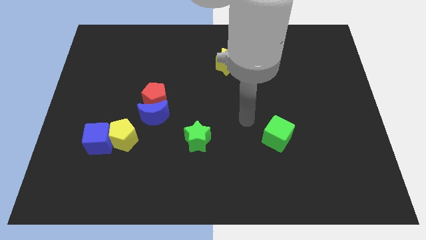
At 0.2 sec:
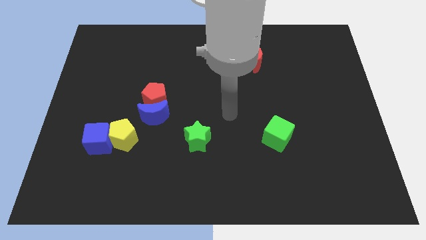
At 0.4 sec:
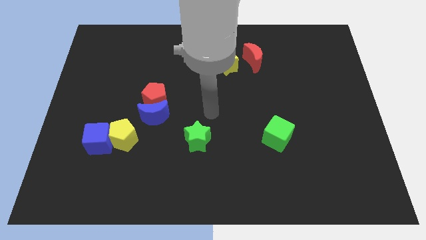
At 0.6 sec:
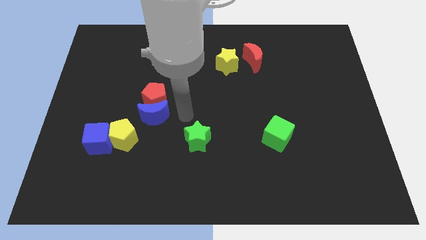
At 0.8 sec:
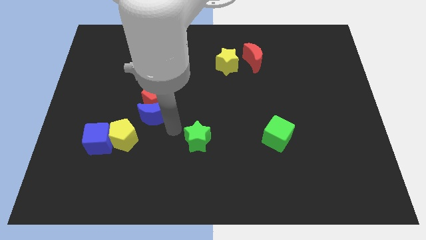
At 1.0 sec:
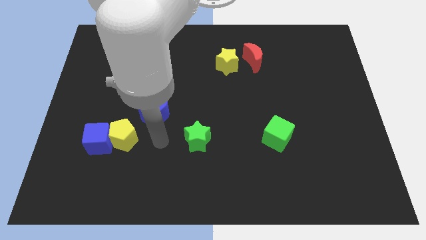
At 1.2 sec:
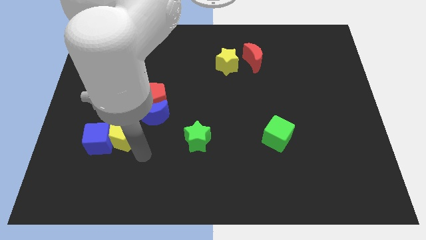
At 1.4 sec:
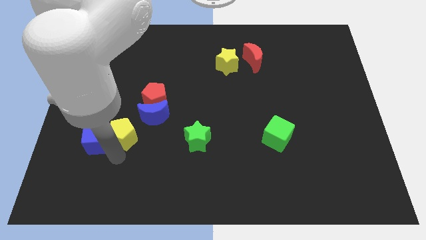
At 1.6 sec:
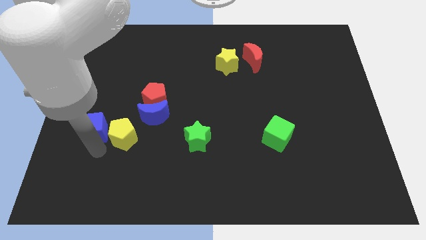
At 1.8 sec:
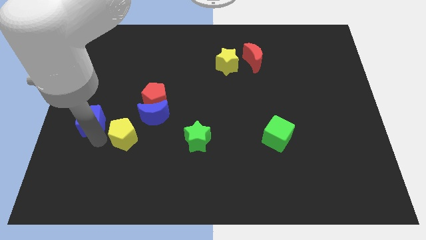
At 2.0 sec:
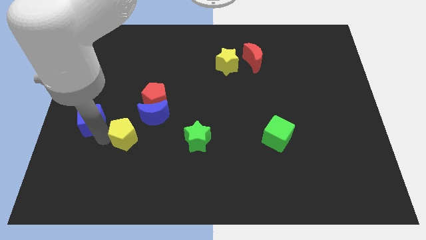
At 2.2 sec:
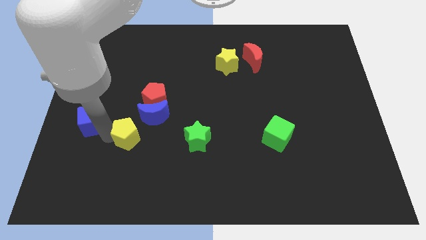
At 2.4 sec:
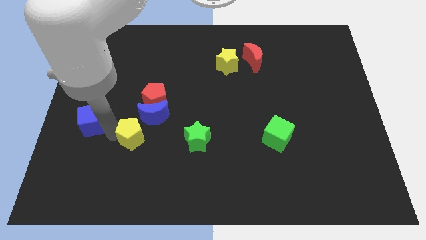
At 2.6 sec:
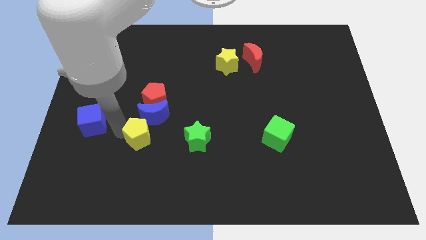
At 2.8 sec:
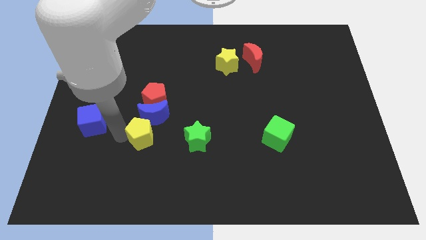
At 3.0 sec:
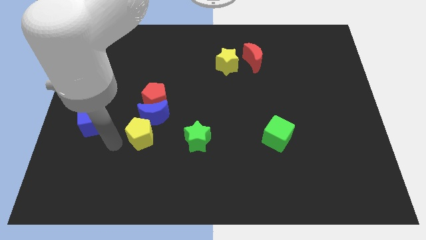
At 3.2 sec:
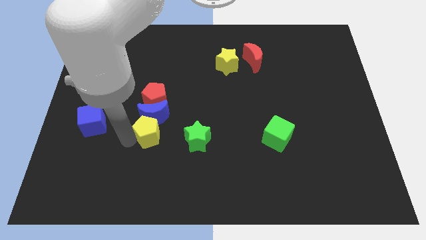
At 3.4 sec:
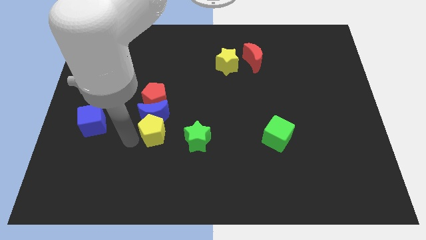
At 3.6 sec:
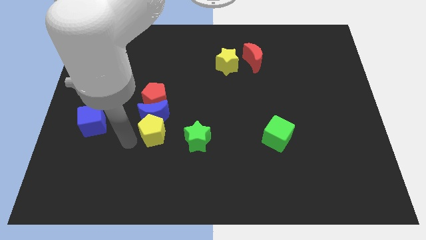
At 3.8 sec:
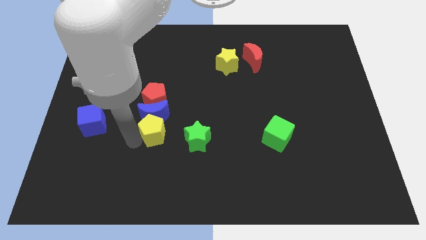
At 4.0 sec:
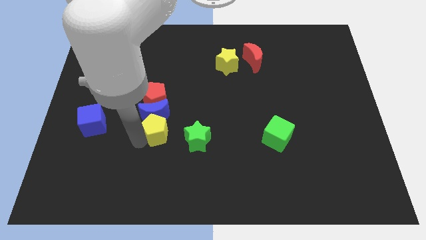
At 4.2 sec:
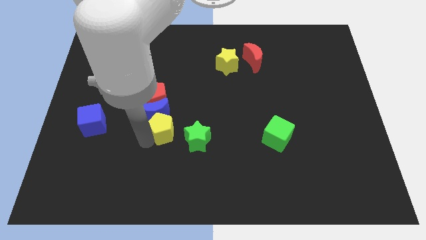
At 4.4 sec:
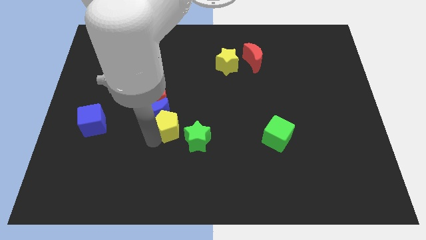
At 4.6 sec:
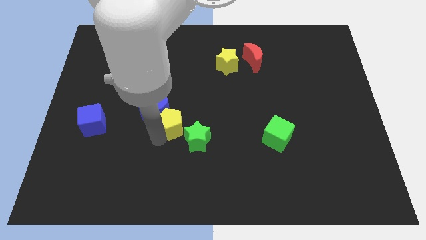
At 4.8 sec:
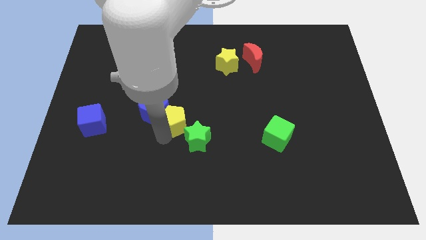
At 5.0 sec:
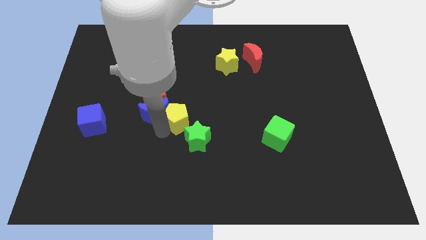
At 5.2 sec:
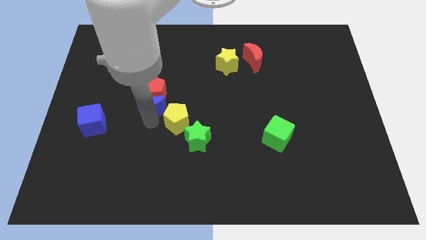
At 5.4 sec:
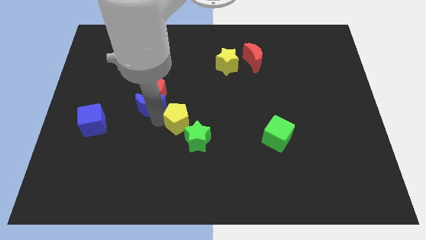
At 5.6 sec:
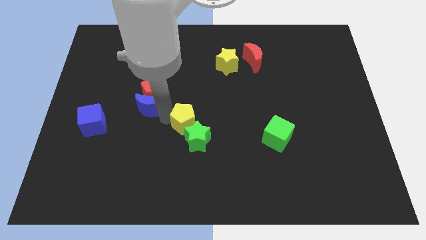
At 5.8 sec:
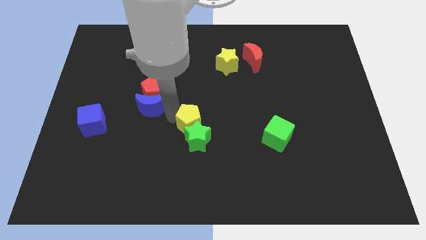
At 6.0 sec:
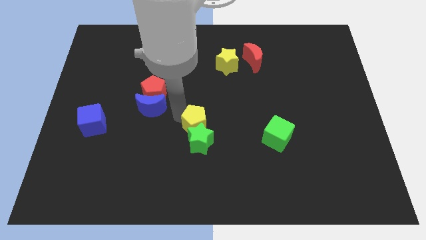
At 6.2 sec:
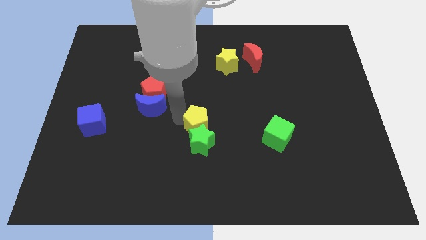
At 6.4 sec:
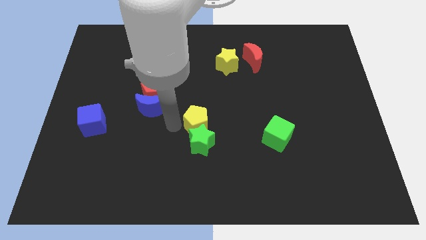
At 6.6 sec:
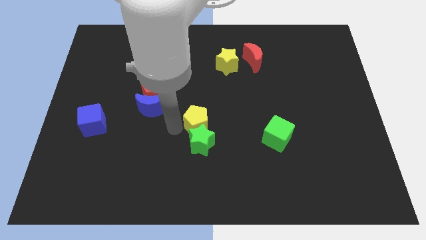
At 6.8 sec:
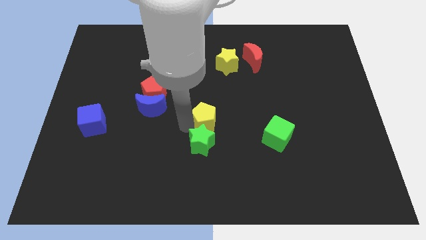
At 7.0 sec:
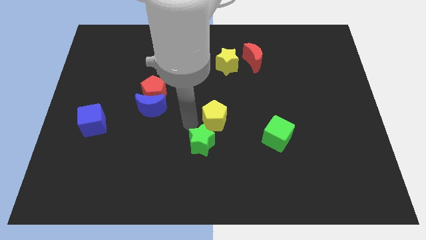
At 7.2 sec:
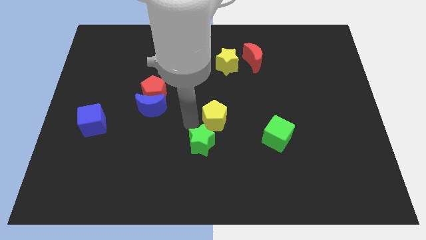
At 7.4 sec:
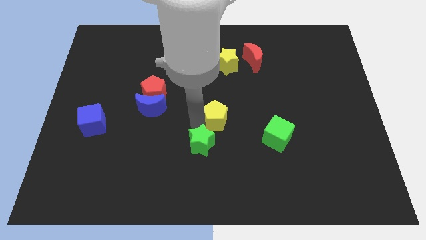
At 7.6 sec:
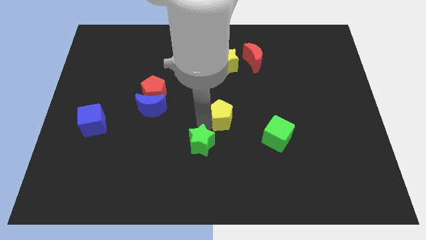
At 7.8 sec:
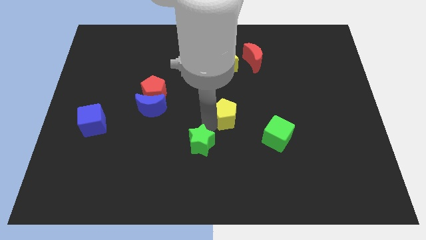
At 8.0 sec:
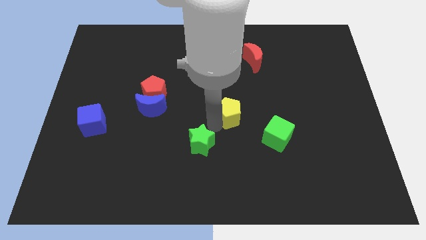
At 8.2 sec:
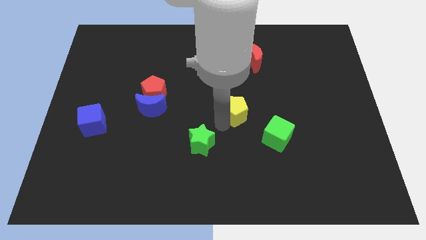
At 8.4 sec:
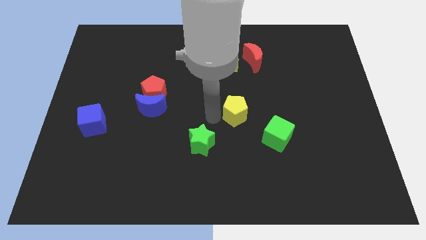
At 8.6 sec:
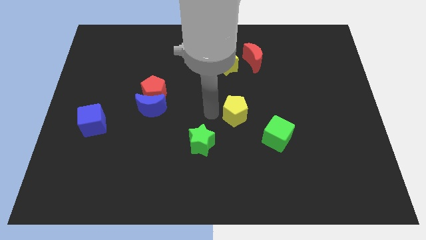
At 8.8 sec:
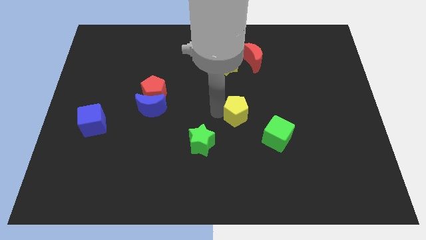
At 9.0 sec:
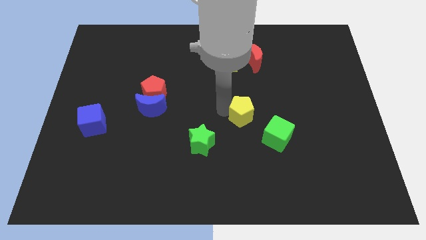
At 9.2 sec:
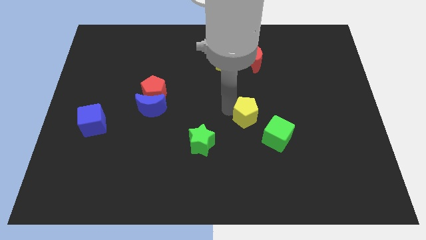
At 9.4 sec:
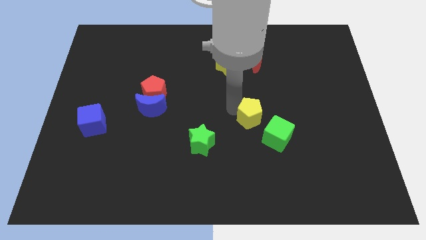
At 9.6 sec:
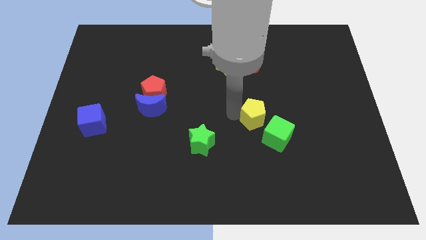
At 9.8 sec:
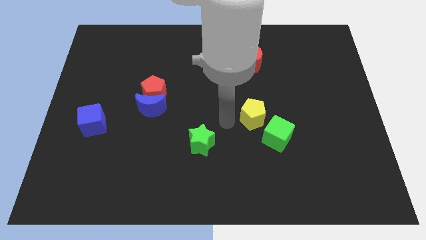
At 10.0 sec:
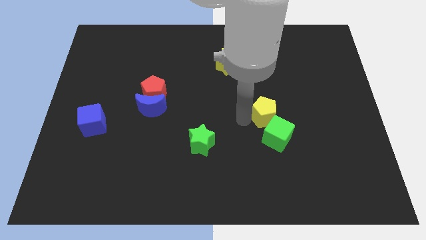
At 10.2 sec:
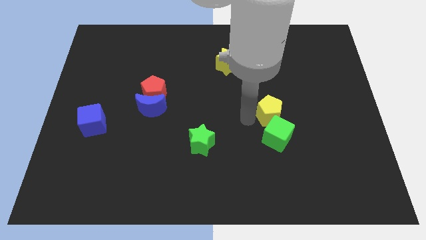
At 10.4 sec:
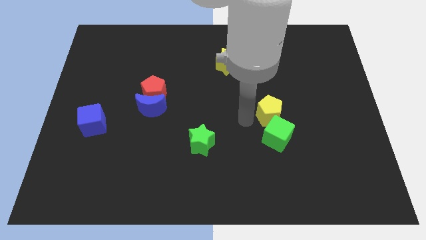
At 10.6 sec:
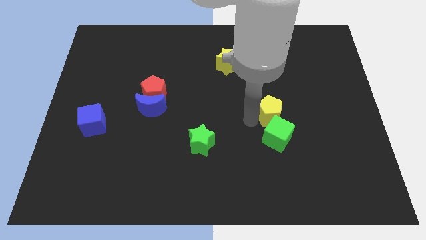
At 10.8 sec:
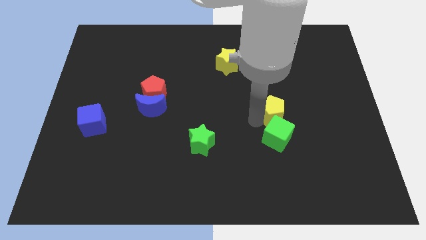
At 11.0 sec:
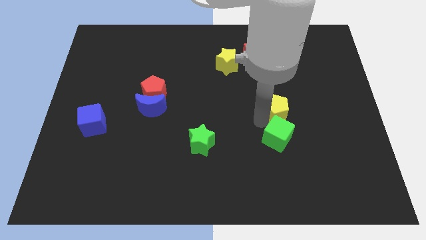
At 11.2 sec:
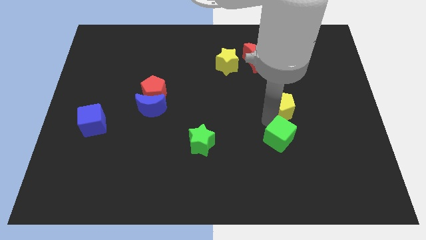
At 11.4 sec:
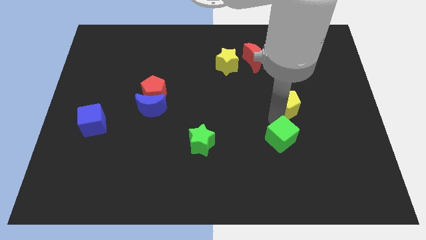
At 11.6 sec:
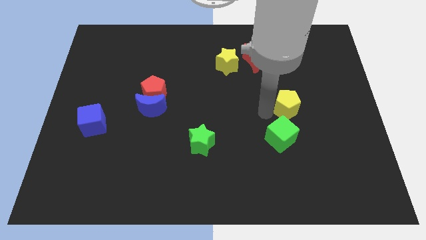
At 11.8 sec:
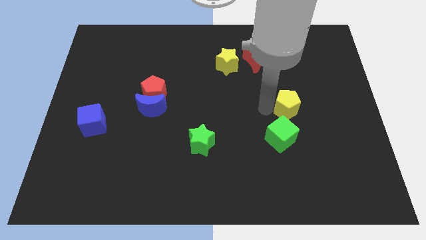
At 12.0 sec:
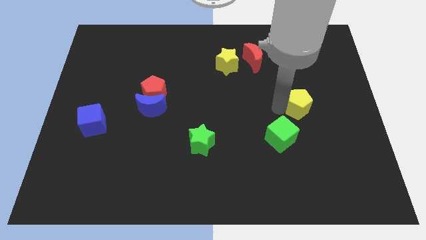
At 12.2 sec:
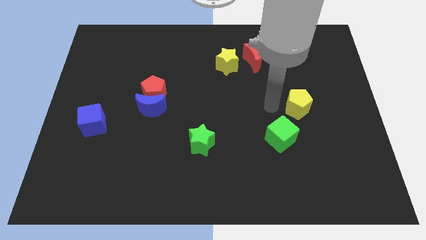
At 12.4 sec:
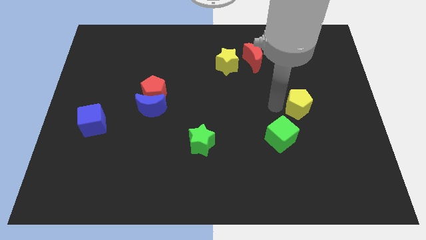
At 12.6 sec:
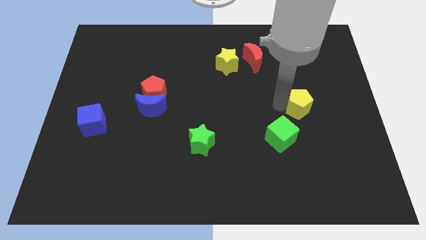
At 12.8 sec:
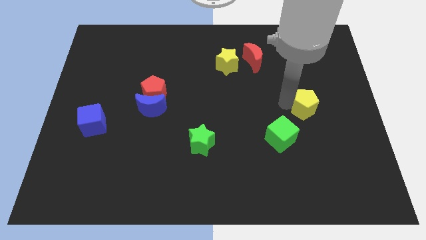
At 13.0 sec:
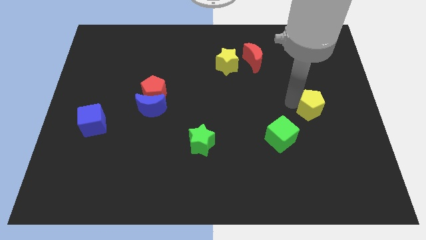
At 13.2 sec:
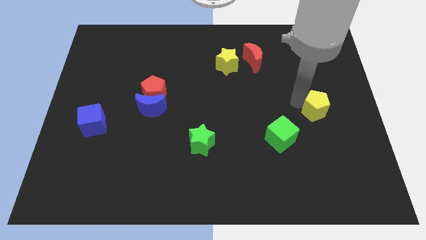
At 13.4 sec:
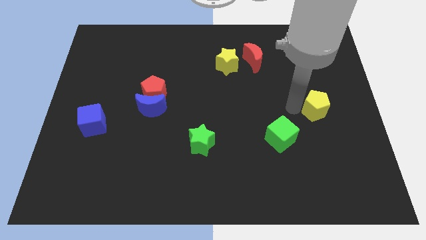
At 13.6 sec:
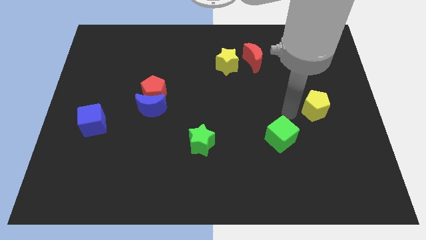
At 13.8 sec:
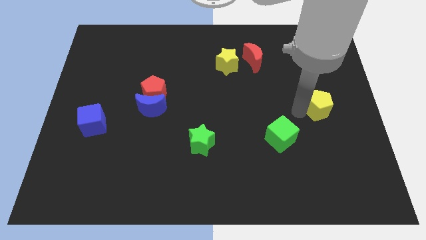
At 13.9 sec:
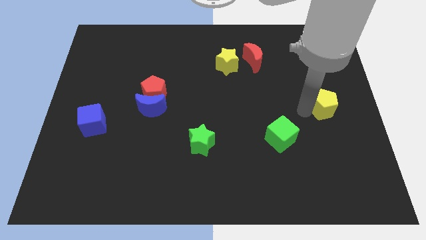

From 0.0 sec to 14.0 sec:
slide the yellow pentagon to the right side
